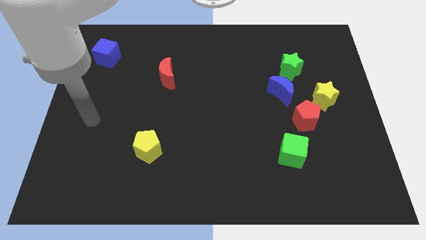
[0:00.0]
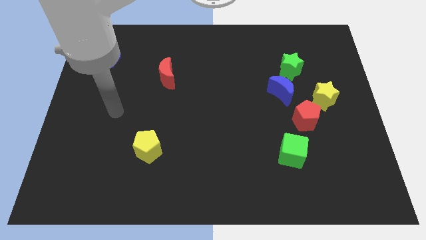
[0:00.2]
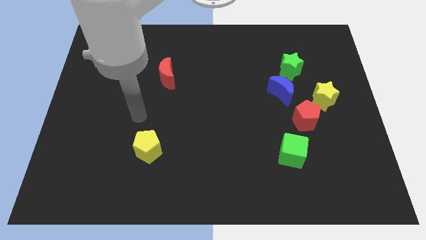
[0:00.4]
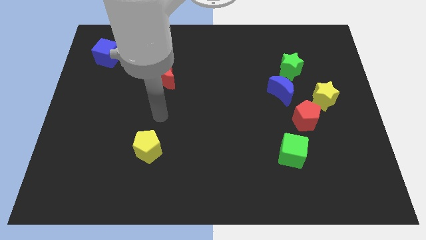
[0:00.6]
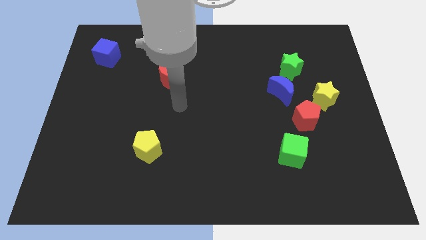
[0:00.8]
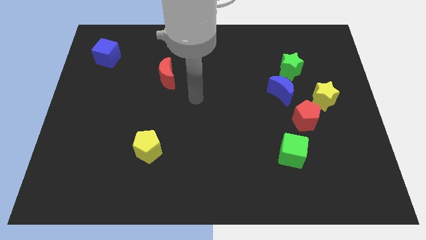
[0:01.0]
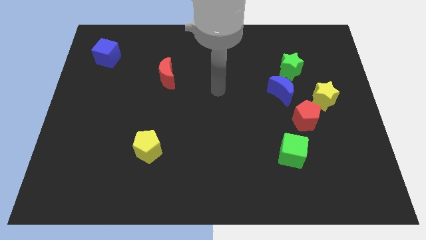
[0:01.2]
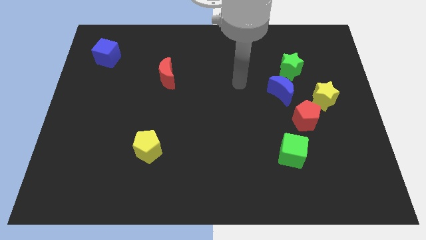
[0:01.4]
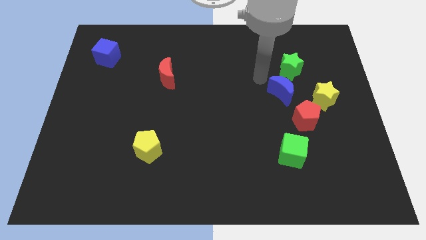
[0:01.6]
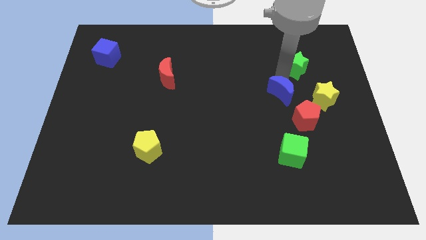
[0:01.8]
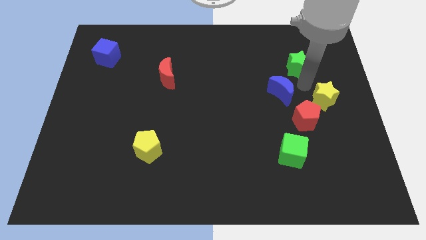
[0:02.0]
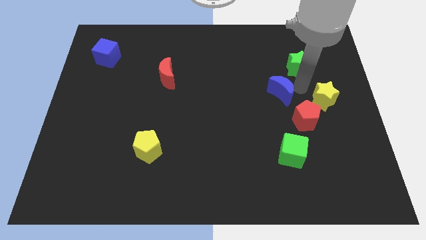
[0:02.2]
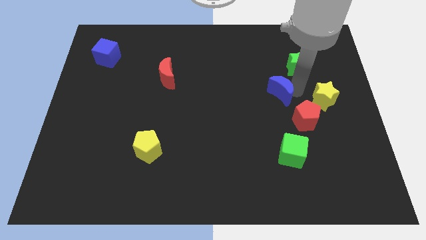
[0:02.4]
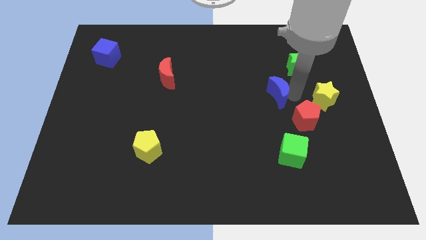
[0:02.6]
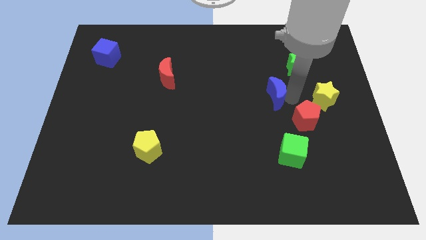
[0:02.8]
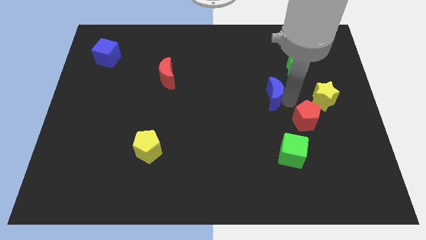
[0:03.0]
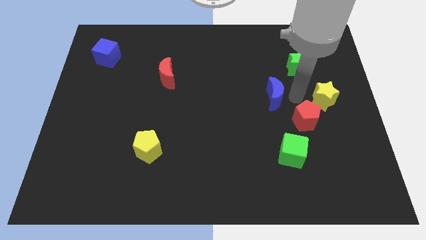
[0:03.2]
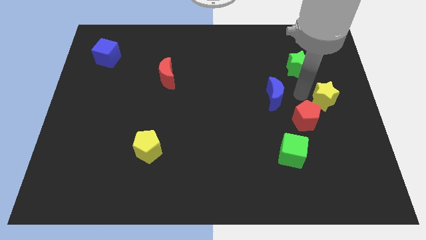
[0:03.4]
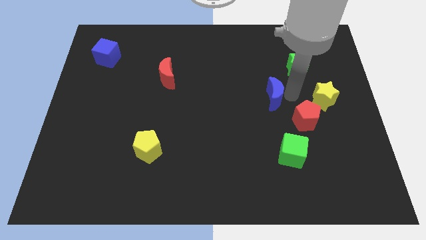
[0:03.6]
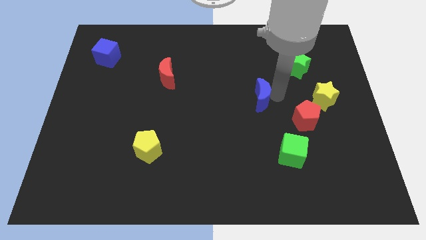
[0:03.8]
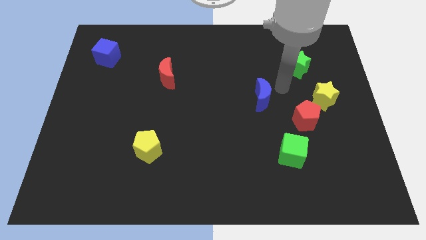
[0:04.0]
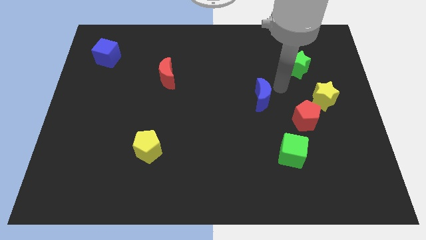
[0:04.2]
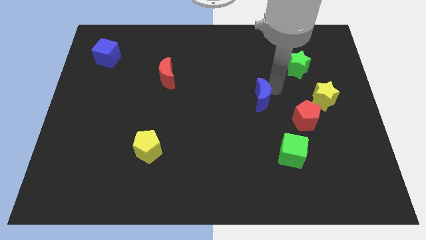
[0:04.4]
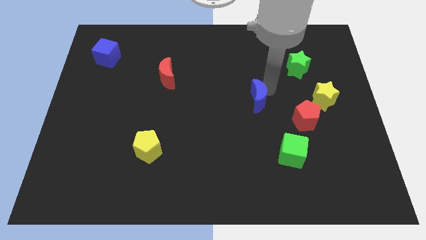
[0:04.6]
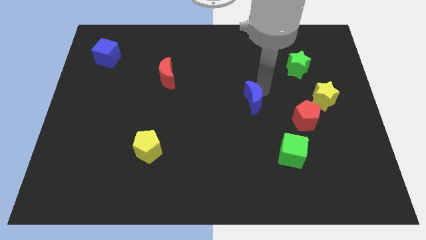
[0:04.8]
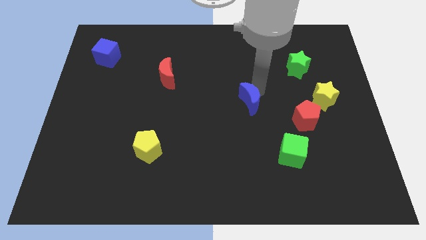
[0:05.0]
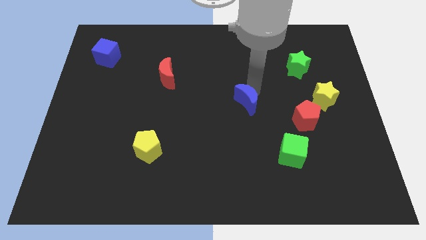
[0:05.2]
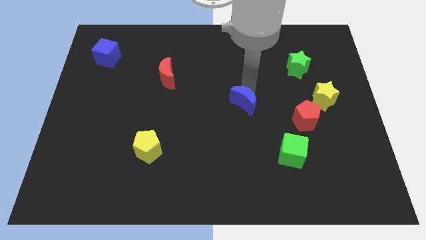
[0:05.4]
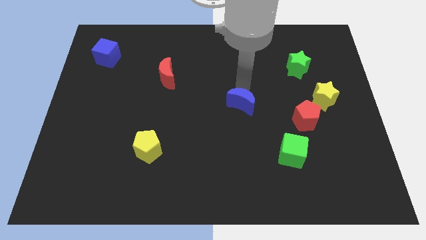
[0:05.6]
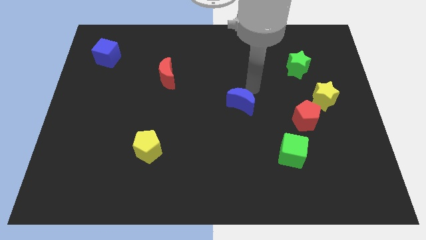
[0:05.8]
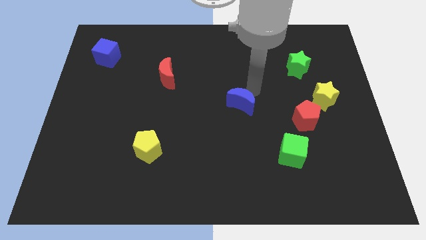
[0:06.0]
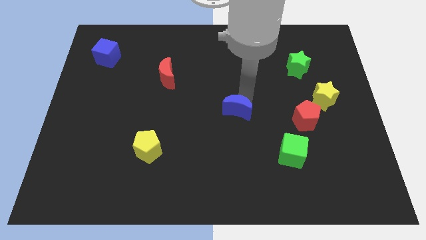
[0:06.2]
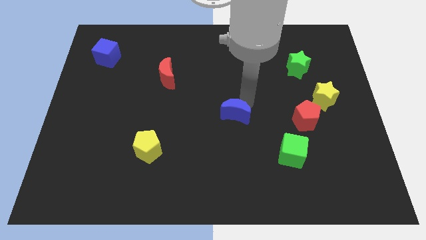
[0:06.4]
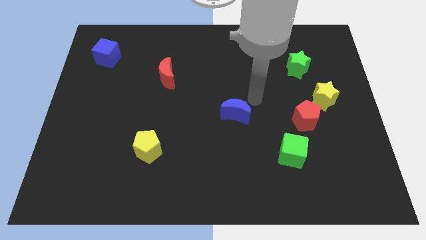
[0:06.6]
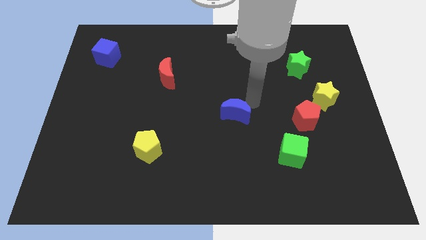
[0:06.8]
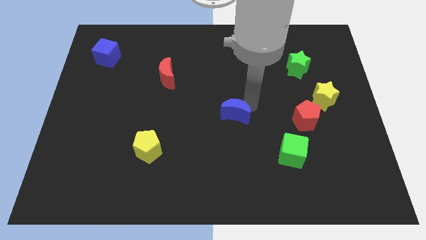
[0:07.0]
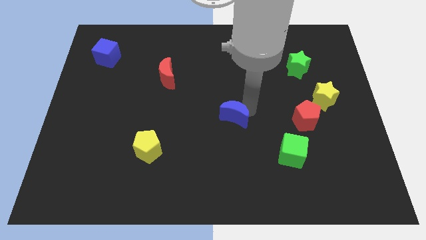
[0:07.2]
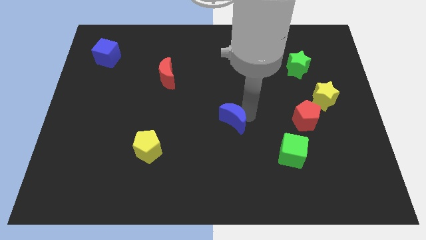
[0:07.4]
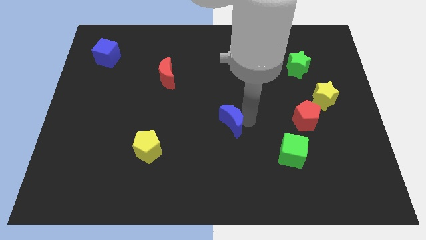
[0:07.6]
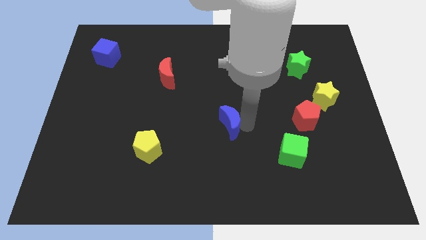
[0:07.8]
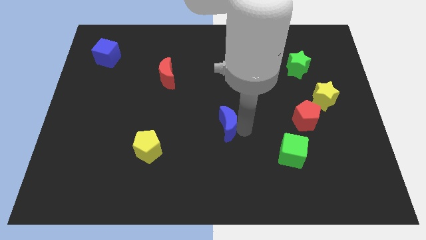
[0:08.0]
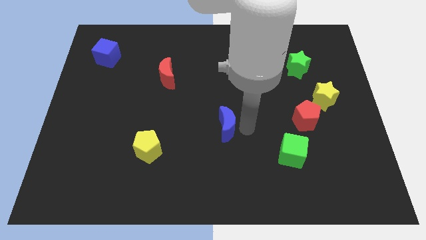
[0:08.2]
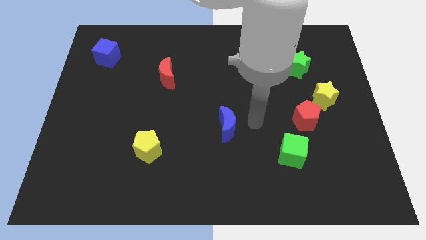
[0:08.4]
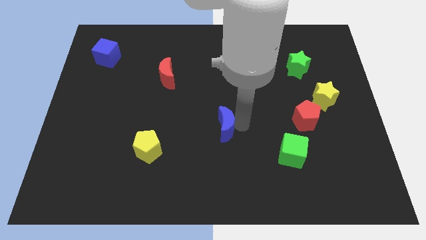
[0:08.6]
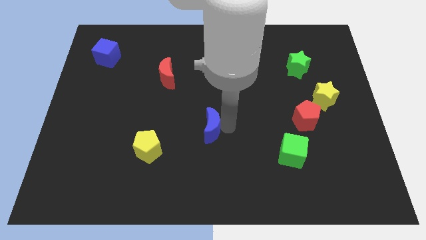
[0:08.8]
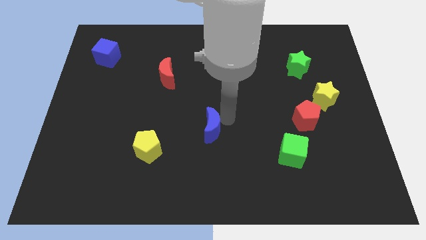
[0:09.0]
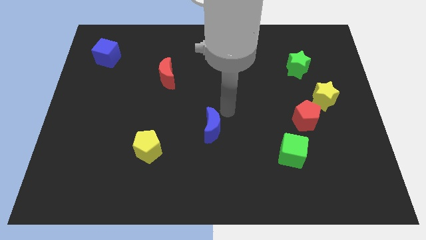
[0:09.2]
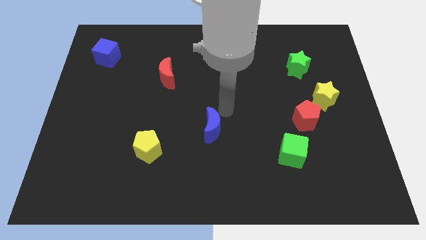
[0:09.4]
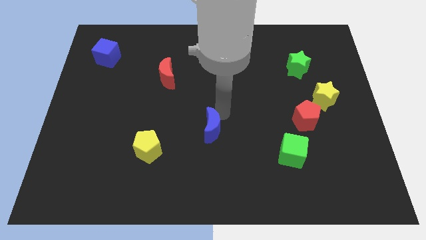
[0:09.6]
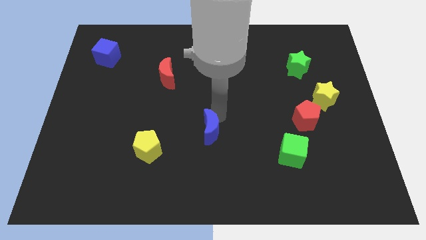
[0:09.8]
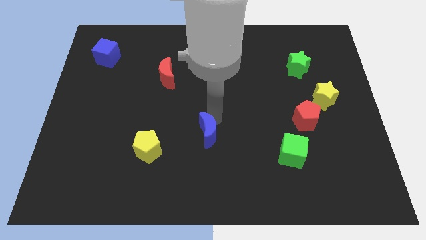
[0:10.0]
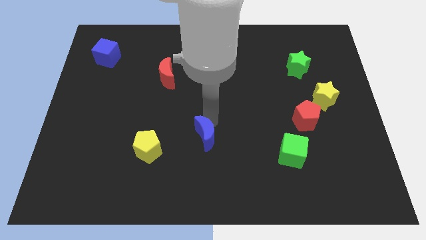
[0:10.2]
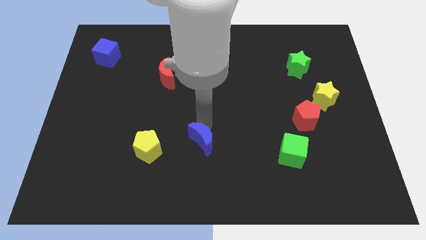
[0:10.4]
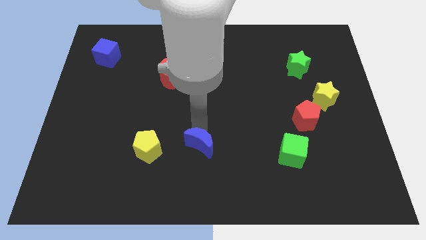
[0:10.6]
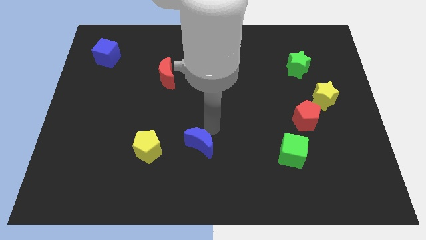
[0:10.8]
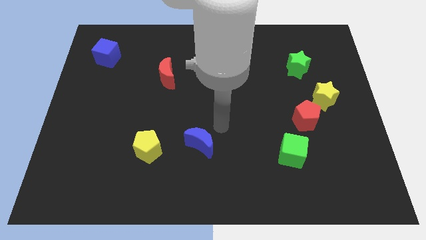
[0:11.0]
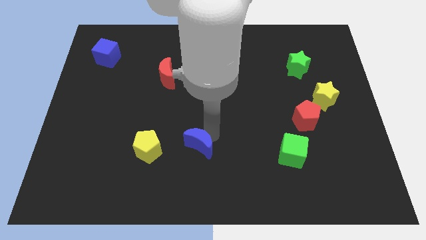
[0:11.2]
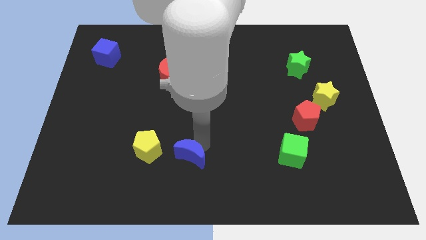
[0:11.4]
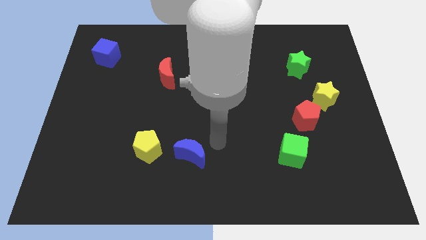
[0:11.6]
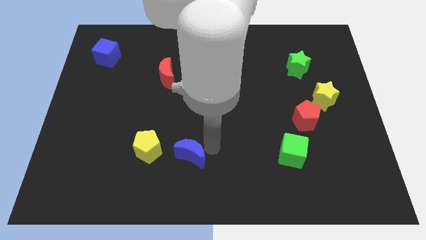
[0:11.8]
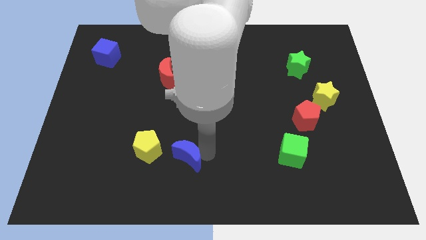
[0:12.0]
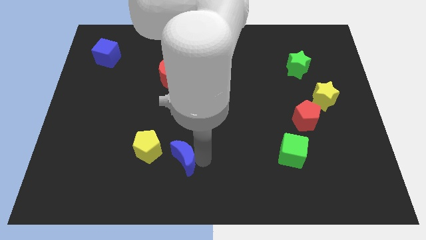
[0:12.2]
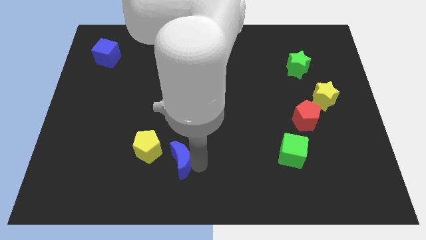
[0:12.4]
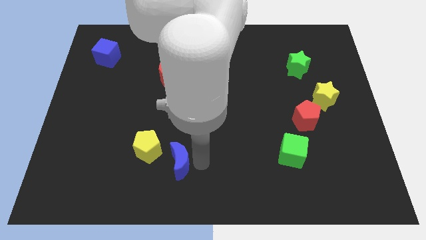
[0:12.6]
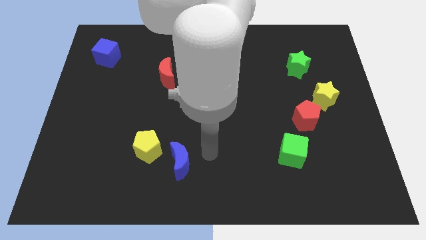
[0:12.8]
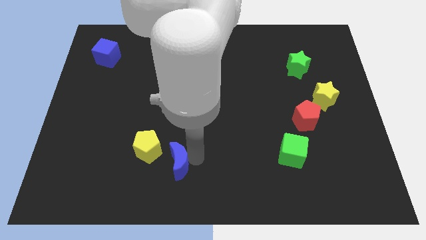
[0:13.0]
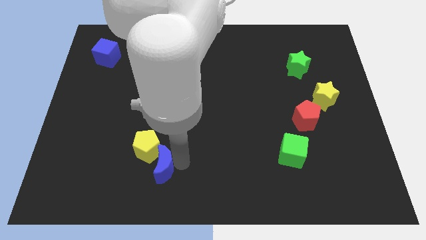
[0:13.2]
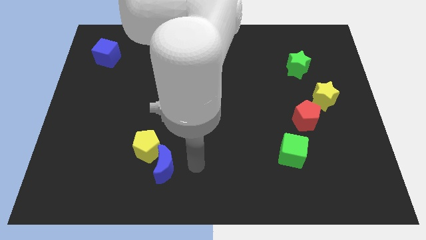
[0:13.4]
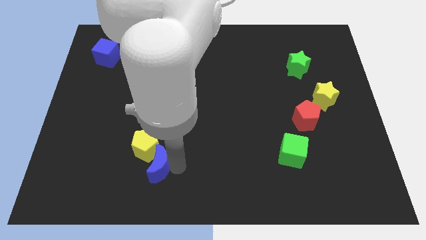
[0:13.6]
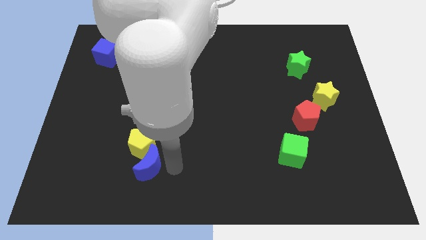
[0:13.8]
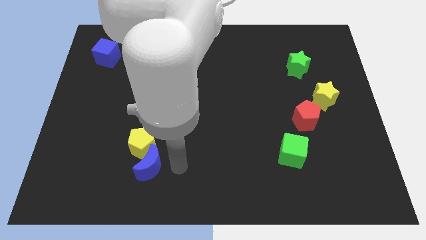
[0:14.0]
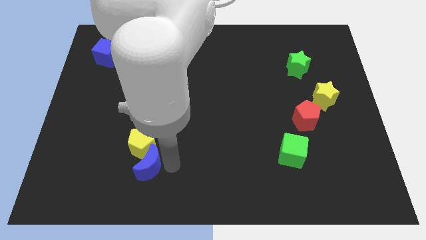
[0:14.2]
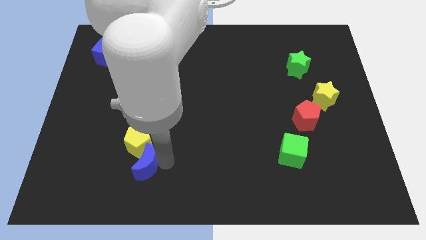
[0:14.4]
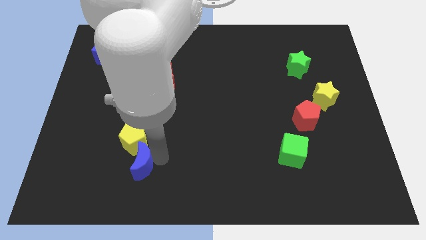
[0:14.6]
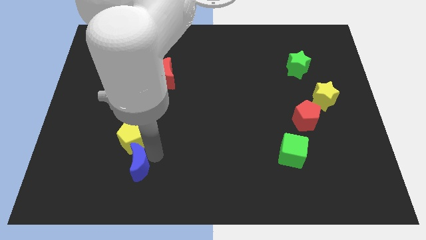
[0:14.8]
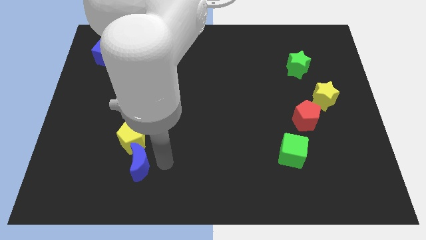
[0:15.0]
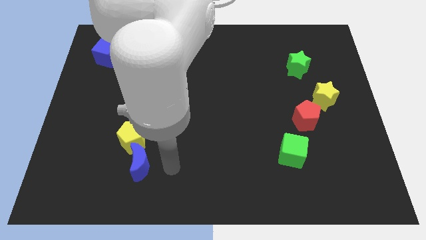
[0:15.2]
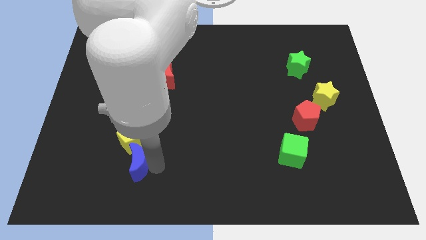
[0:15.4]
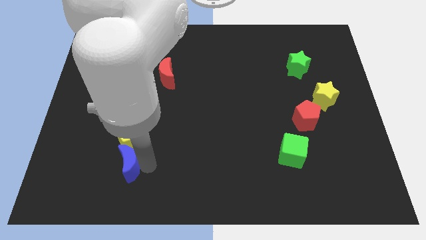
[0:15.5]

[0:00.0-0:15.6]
slide the blue moon to the bottom left of the yellow pentagon
